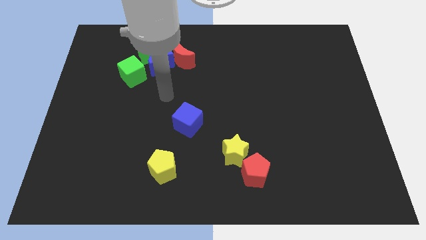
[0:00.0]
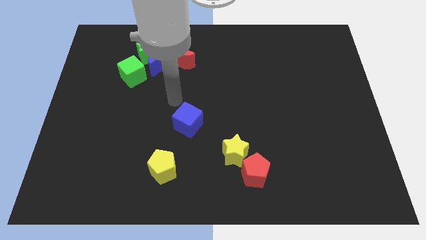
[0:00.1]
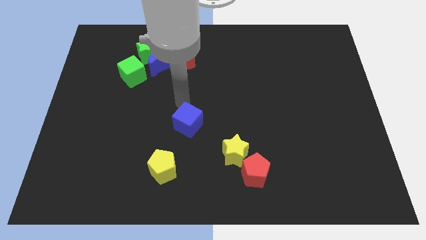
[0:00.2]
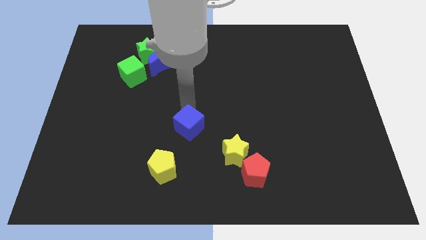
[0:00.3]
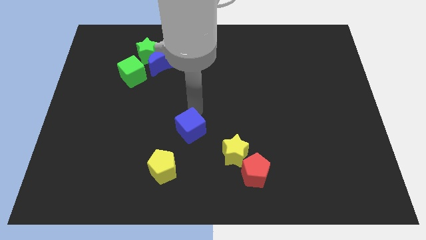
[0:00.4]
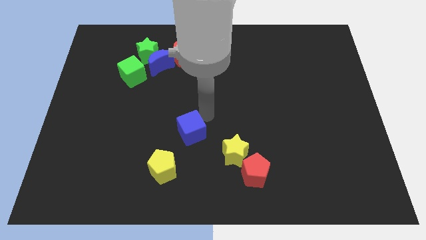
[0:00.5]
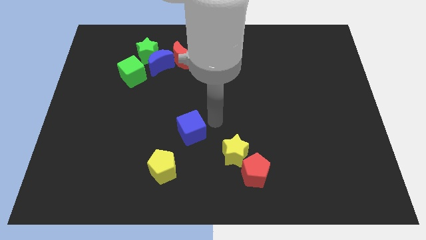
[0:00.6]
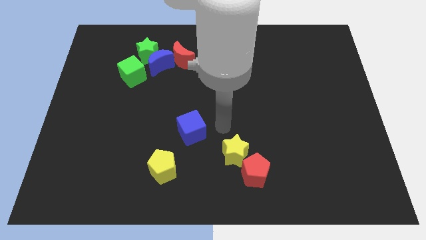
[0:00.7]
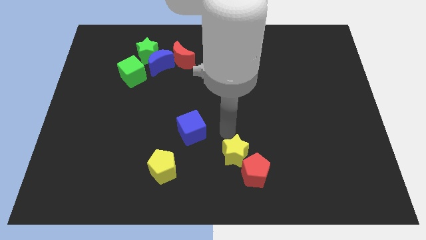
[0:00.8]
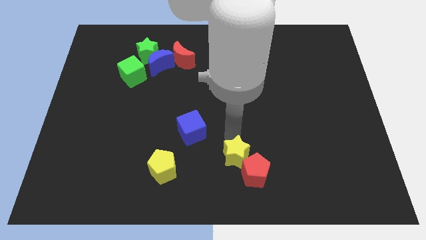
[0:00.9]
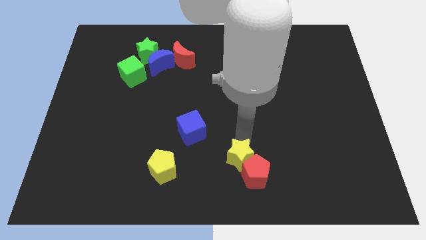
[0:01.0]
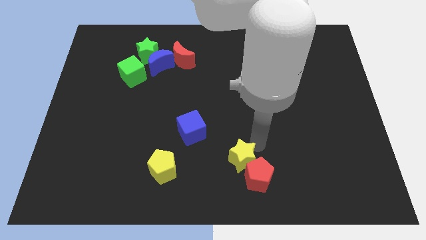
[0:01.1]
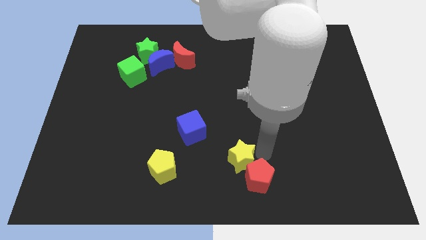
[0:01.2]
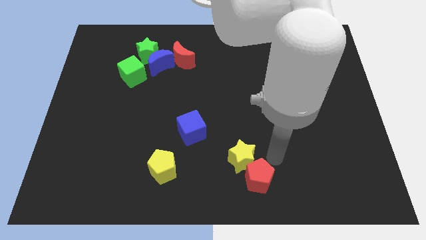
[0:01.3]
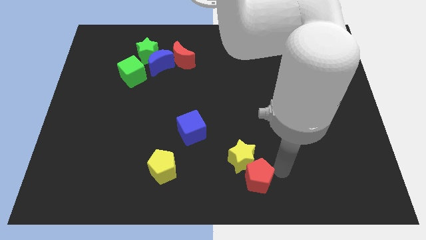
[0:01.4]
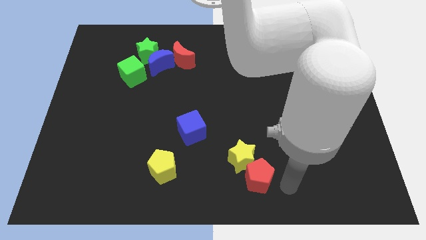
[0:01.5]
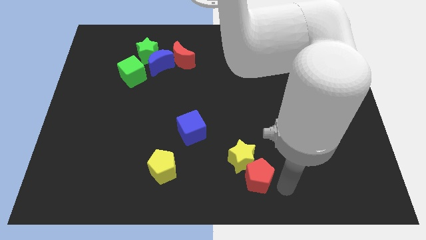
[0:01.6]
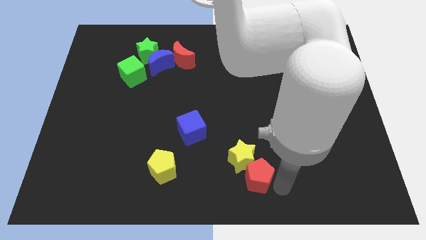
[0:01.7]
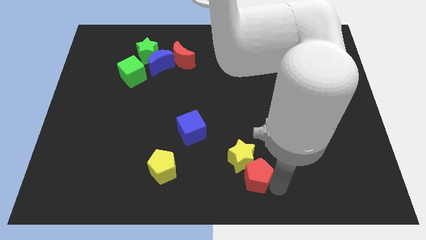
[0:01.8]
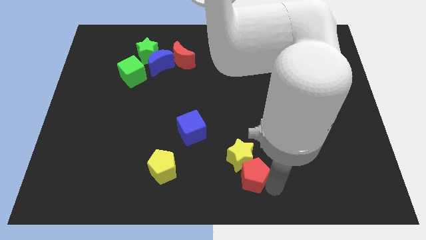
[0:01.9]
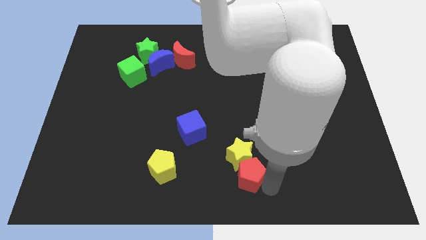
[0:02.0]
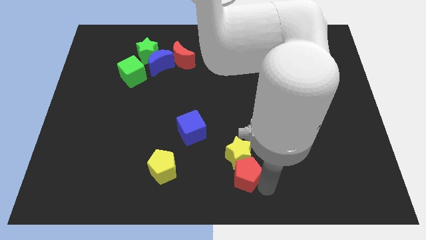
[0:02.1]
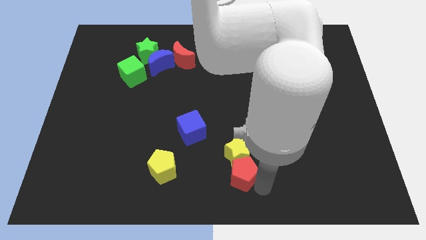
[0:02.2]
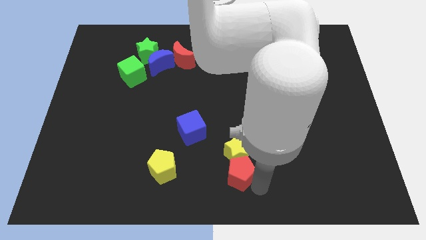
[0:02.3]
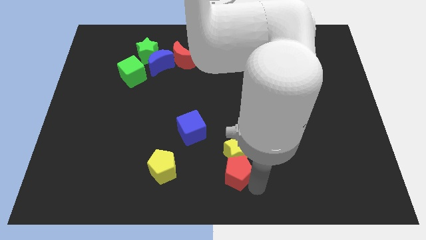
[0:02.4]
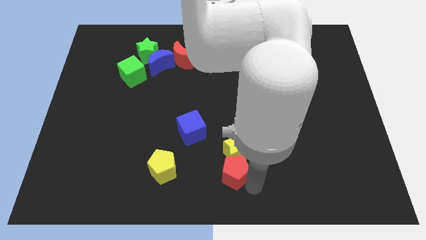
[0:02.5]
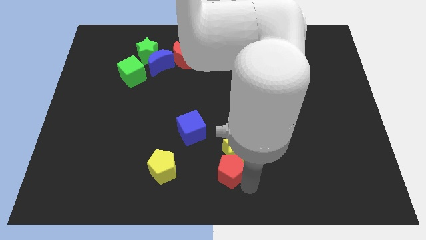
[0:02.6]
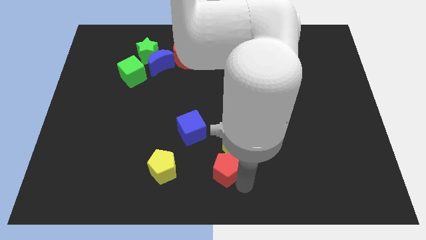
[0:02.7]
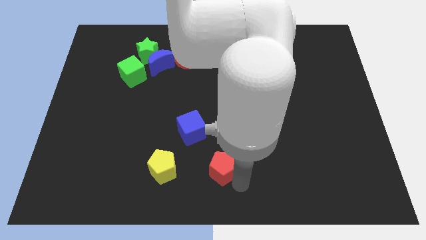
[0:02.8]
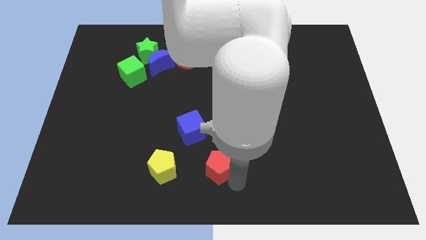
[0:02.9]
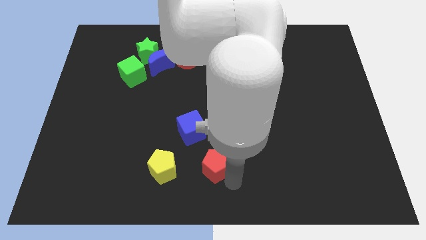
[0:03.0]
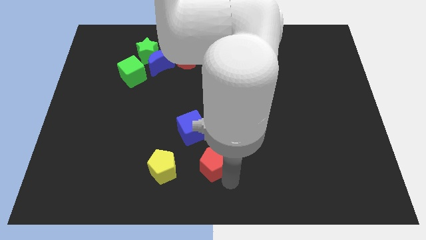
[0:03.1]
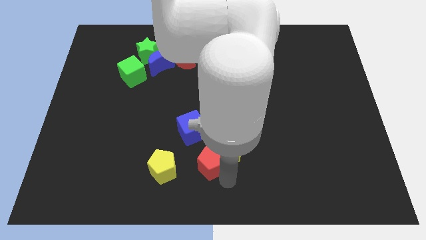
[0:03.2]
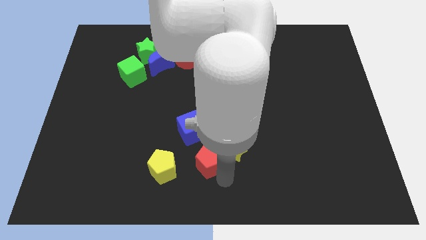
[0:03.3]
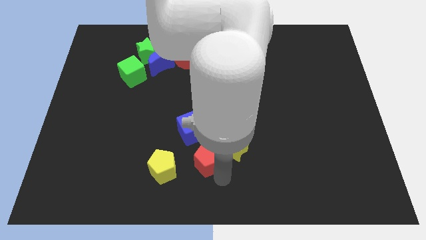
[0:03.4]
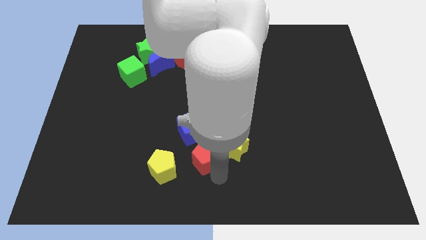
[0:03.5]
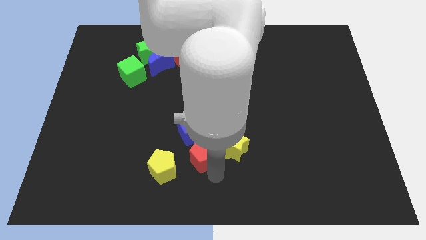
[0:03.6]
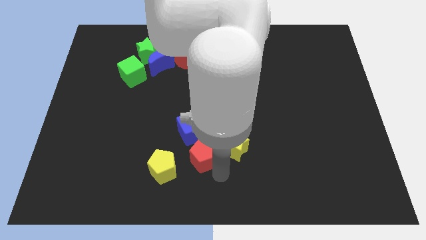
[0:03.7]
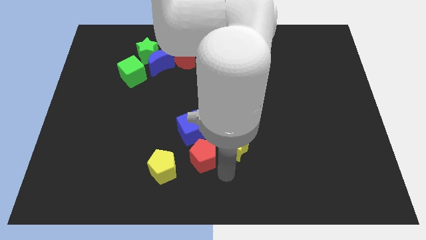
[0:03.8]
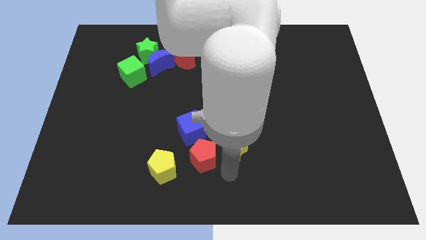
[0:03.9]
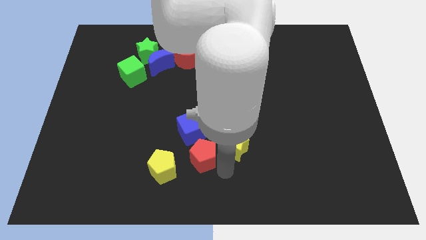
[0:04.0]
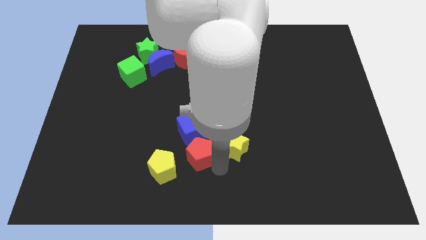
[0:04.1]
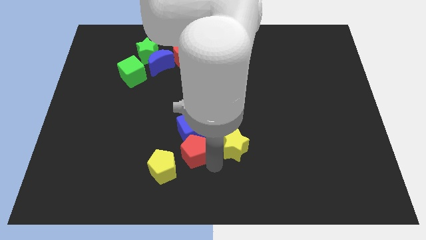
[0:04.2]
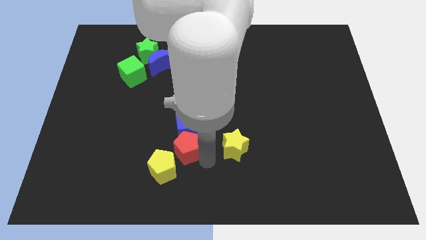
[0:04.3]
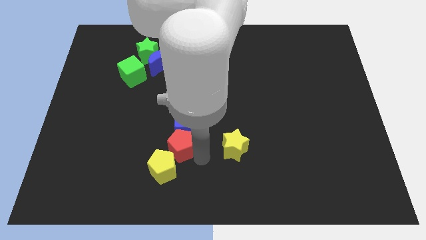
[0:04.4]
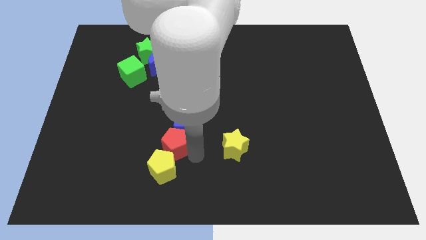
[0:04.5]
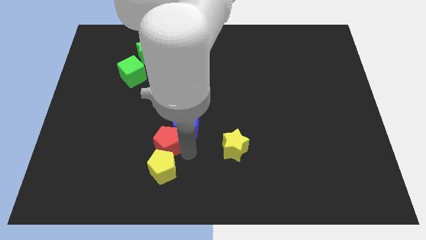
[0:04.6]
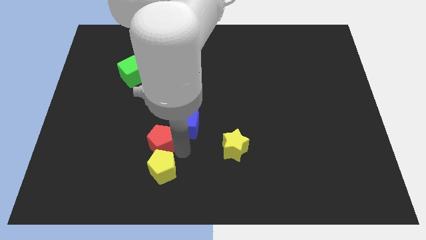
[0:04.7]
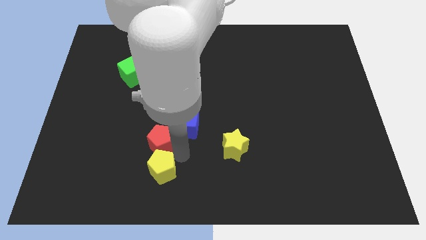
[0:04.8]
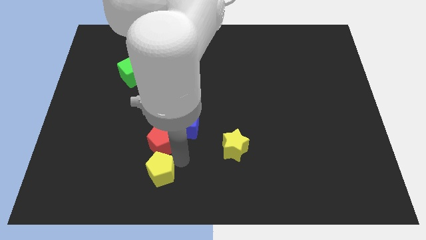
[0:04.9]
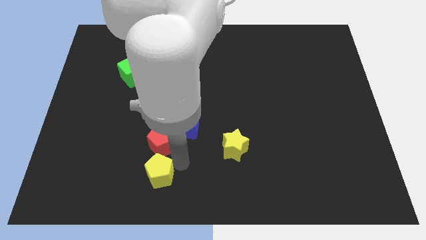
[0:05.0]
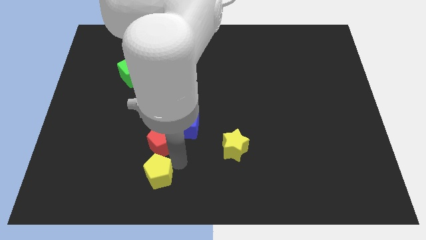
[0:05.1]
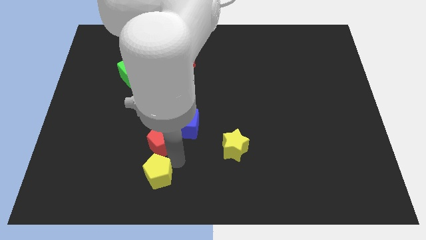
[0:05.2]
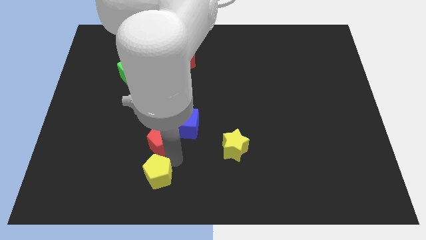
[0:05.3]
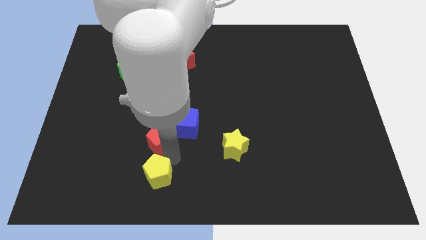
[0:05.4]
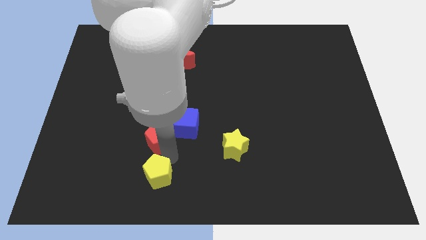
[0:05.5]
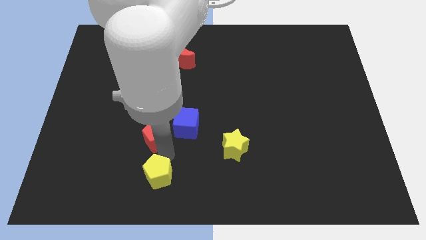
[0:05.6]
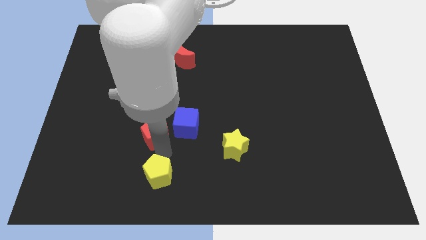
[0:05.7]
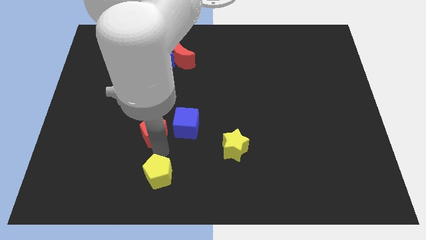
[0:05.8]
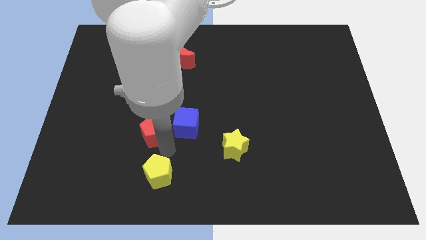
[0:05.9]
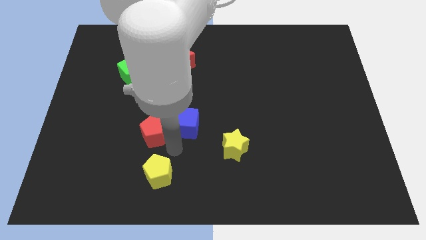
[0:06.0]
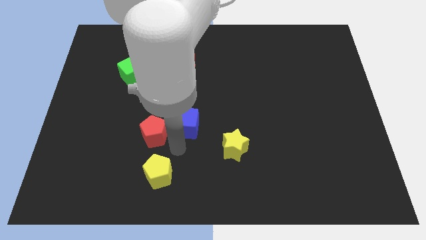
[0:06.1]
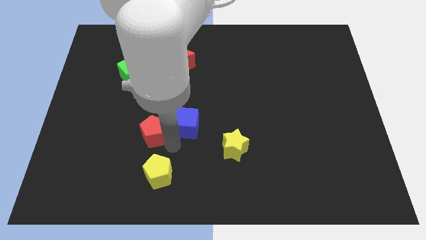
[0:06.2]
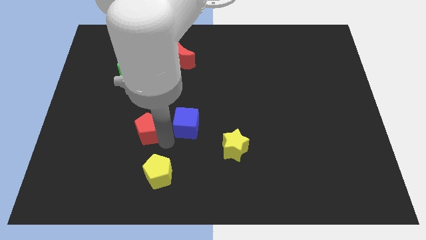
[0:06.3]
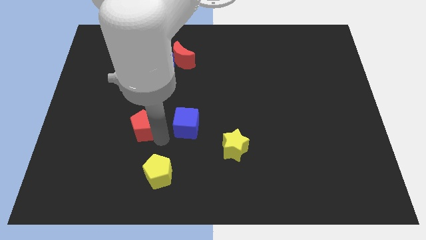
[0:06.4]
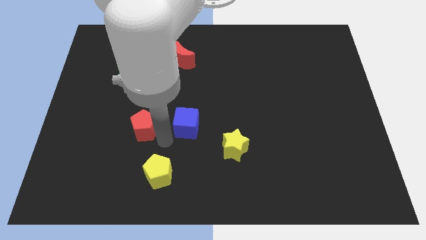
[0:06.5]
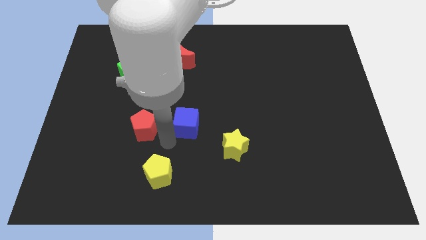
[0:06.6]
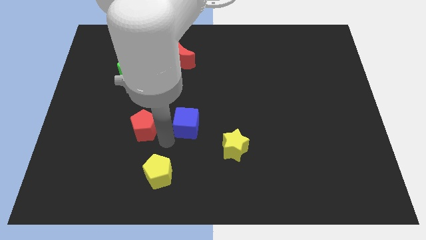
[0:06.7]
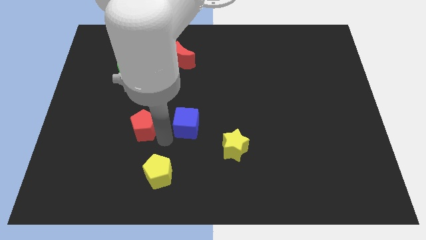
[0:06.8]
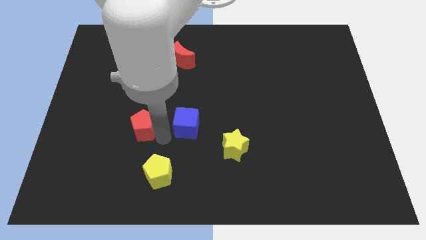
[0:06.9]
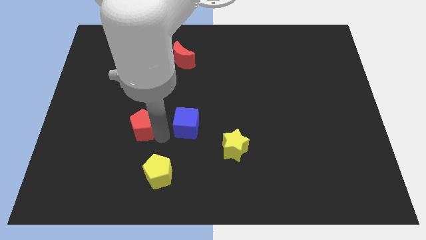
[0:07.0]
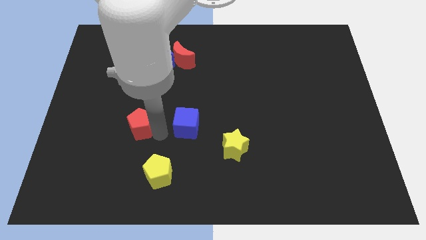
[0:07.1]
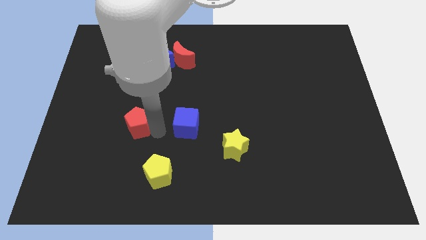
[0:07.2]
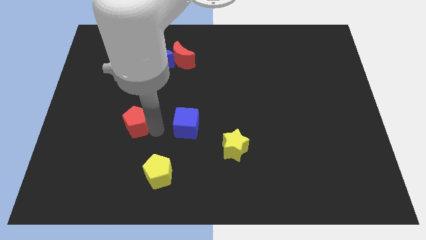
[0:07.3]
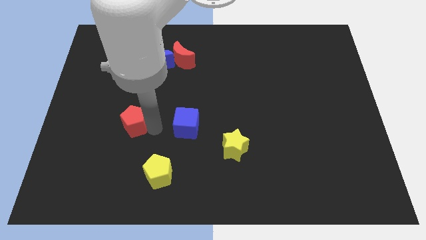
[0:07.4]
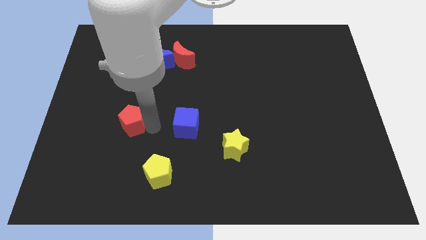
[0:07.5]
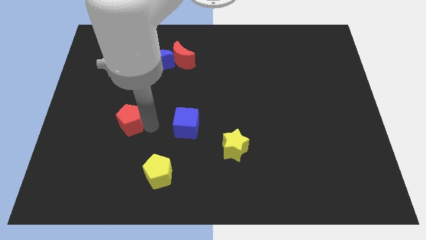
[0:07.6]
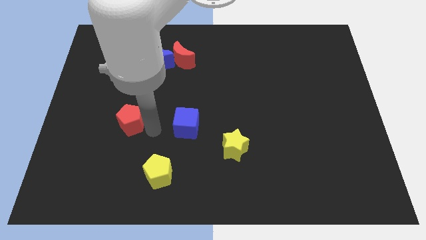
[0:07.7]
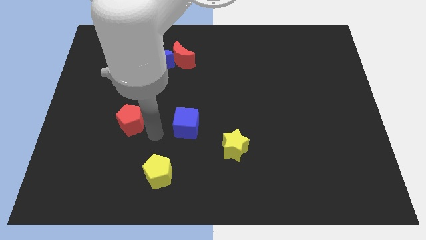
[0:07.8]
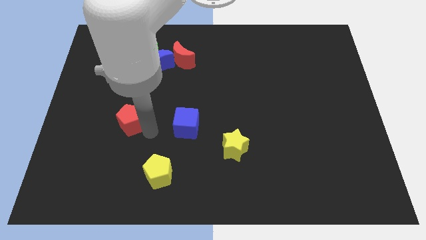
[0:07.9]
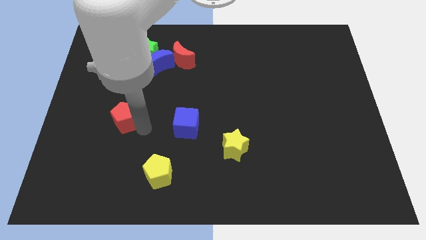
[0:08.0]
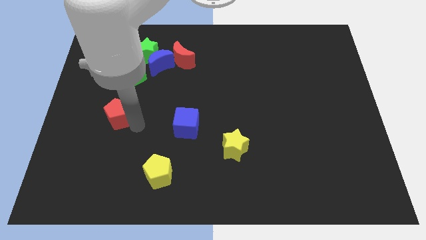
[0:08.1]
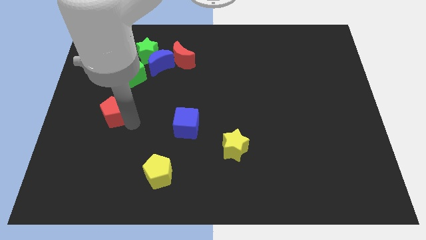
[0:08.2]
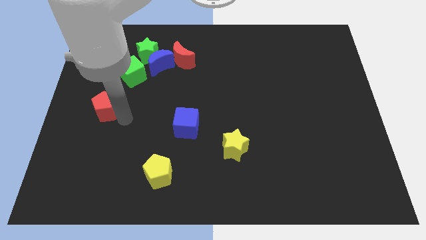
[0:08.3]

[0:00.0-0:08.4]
push the red pentagon to the center left
